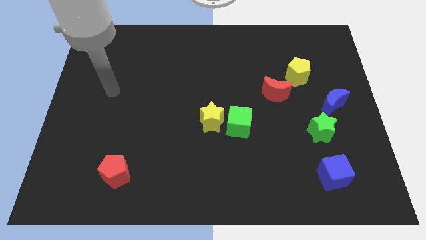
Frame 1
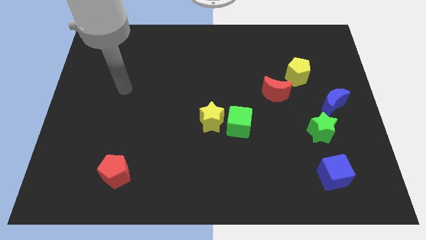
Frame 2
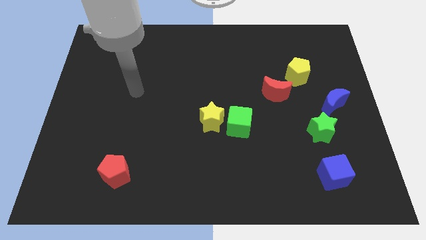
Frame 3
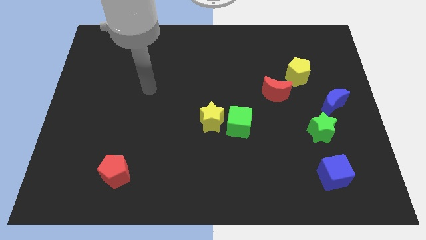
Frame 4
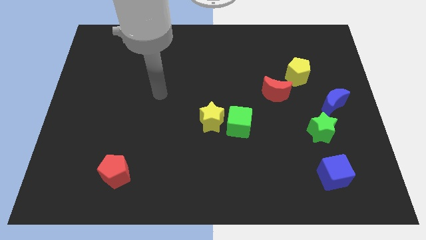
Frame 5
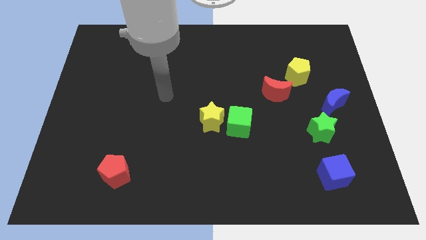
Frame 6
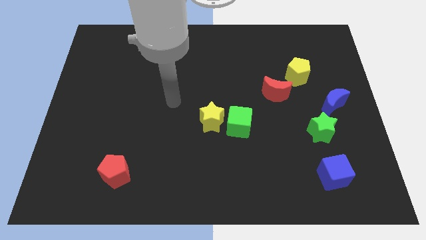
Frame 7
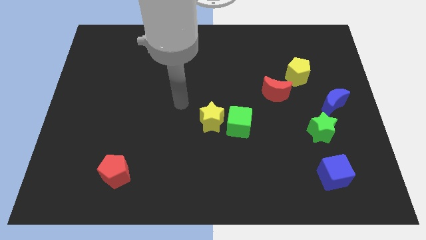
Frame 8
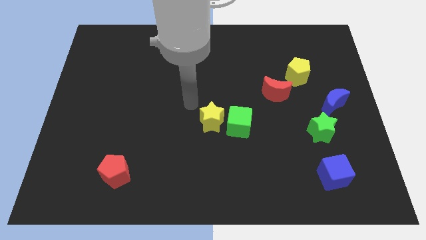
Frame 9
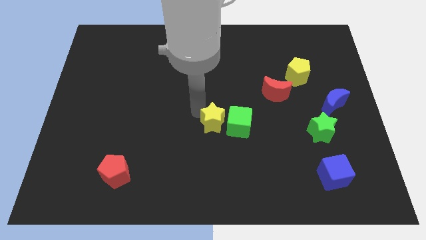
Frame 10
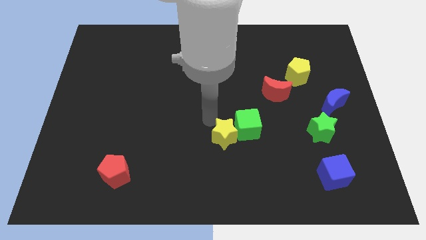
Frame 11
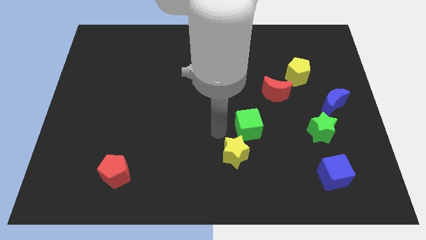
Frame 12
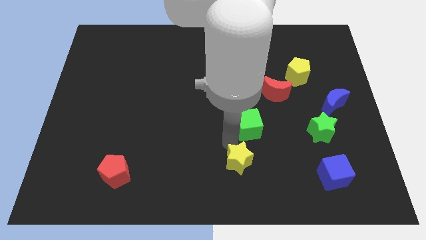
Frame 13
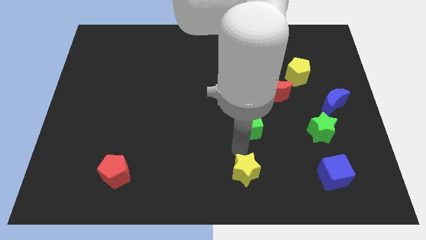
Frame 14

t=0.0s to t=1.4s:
move the green cube away from the yellow star

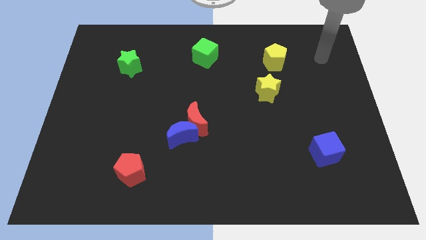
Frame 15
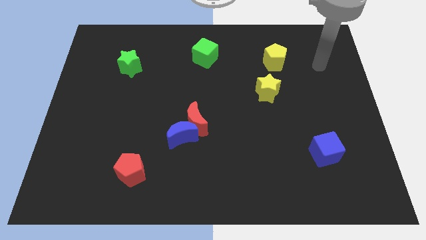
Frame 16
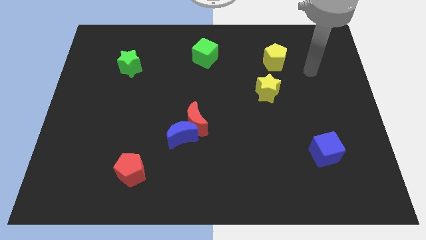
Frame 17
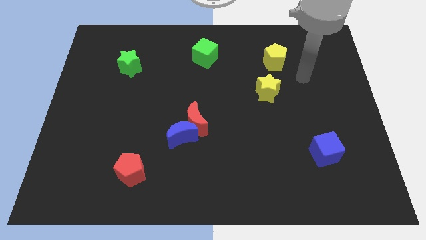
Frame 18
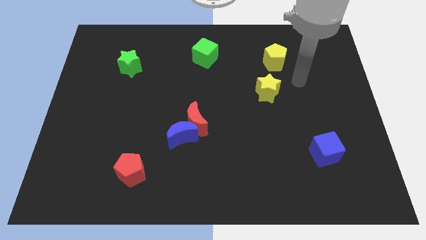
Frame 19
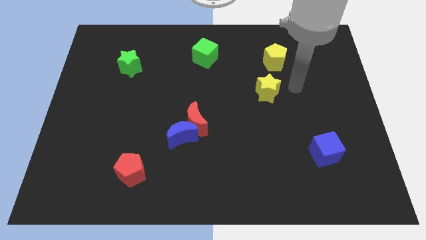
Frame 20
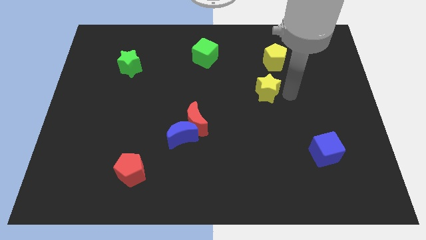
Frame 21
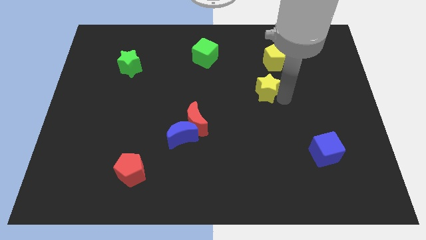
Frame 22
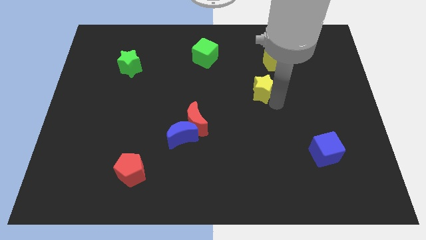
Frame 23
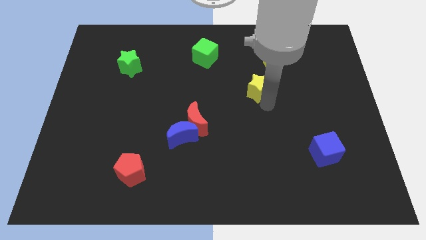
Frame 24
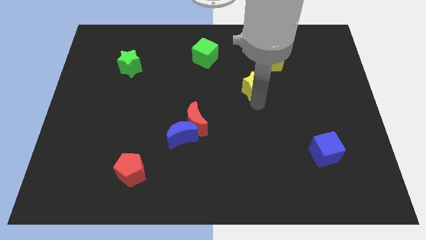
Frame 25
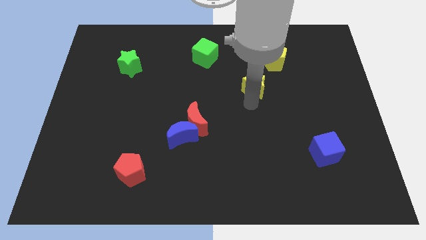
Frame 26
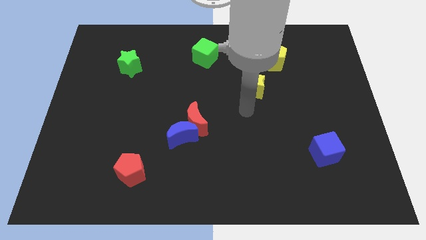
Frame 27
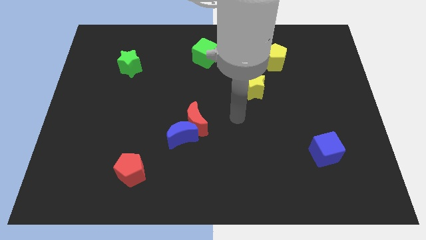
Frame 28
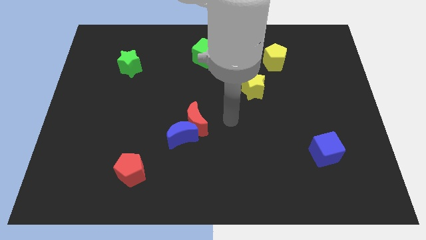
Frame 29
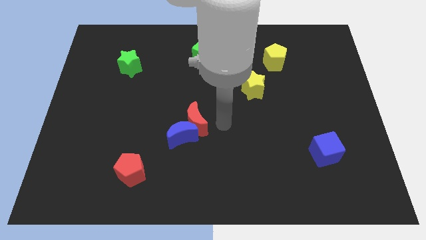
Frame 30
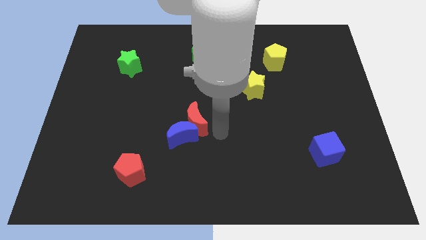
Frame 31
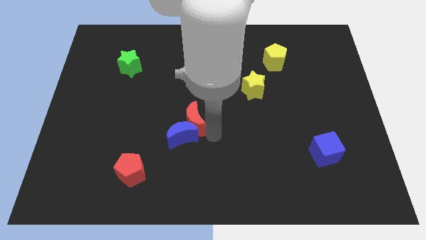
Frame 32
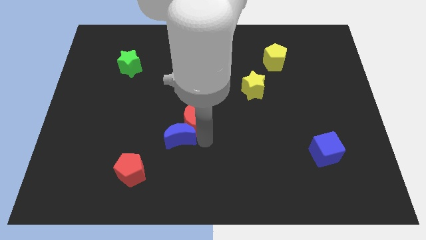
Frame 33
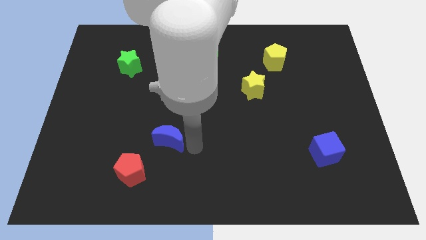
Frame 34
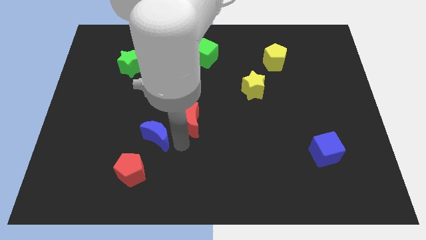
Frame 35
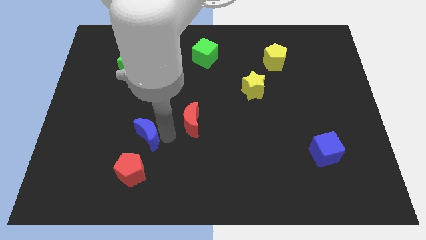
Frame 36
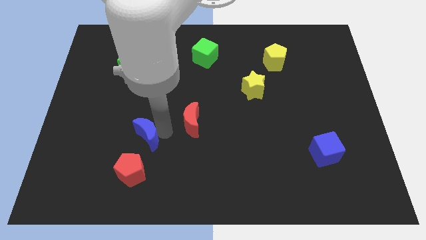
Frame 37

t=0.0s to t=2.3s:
separate the red moon from the blue moon

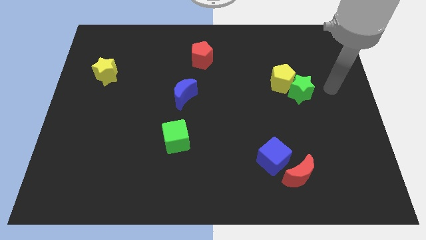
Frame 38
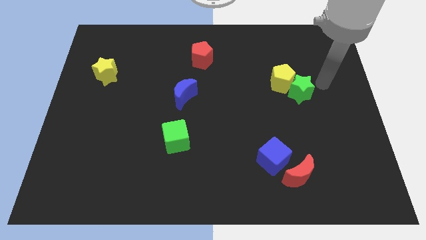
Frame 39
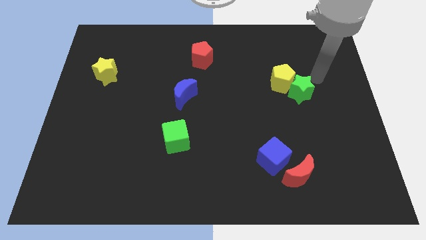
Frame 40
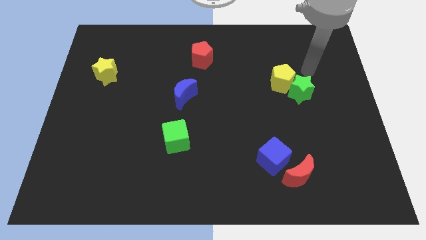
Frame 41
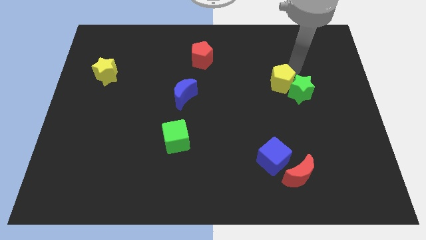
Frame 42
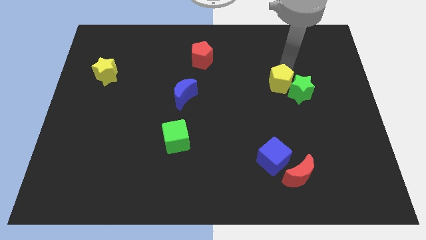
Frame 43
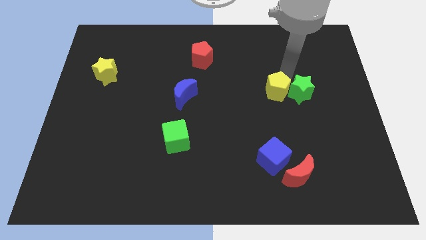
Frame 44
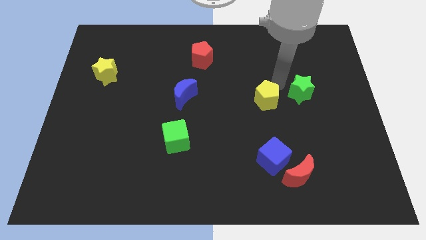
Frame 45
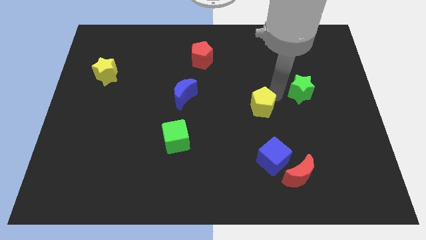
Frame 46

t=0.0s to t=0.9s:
move the green star away from the yellow pentagon

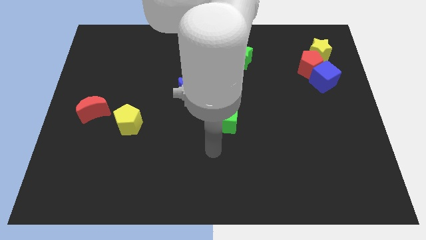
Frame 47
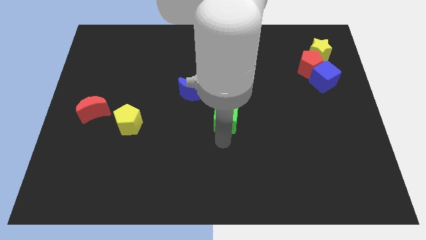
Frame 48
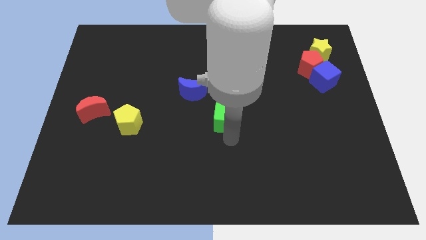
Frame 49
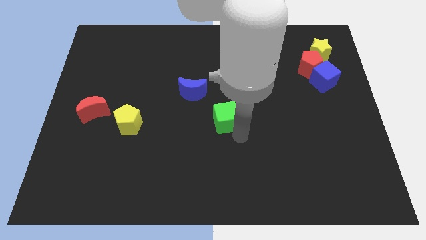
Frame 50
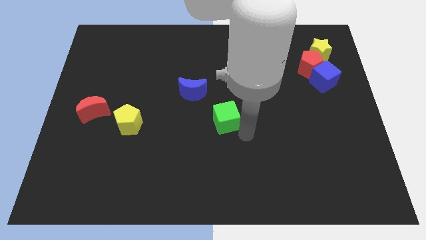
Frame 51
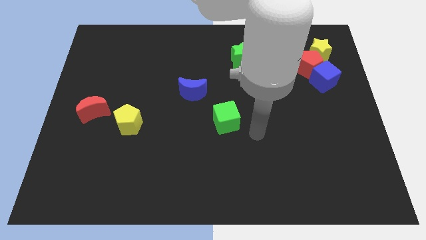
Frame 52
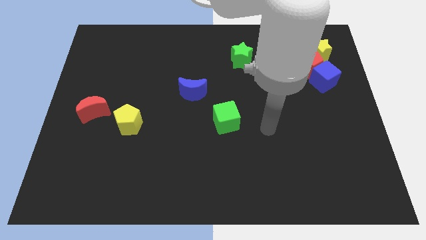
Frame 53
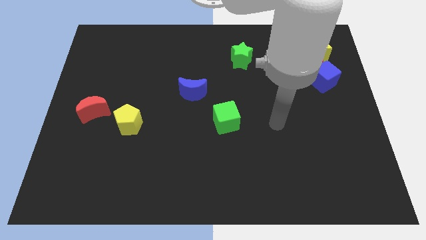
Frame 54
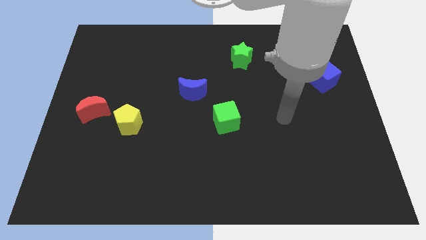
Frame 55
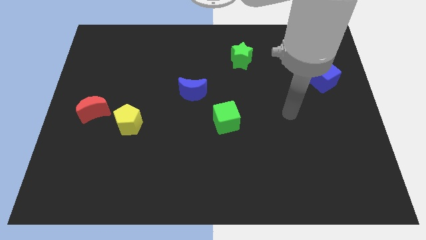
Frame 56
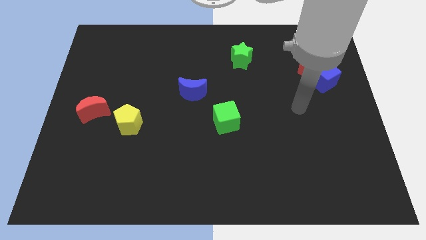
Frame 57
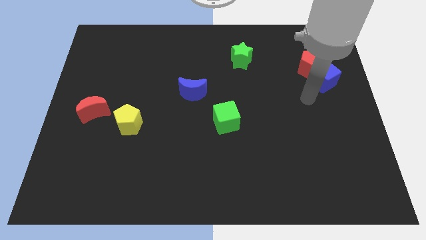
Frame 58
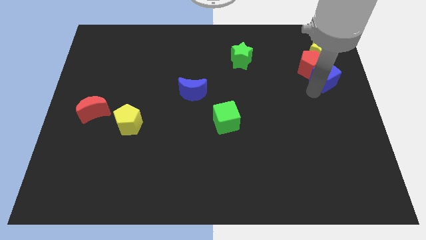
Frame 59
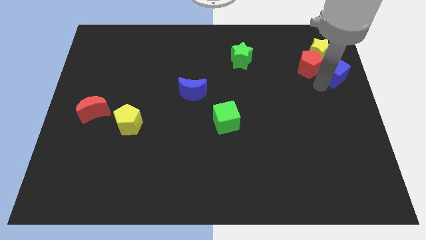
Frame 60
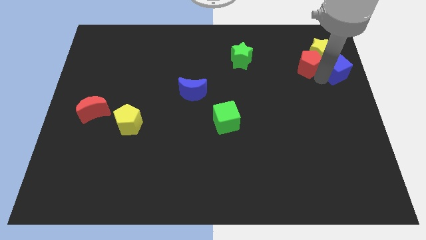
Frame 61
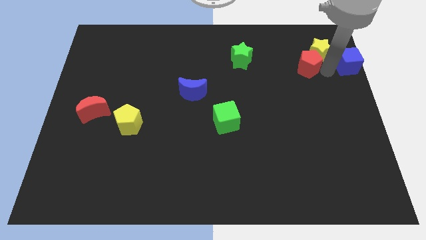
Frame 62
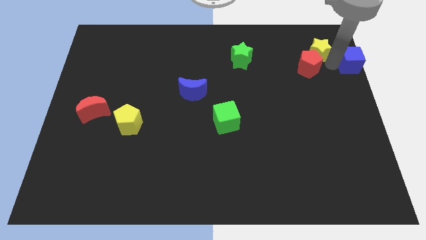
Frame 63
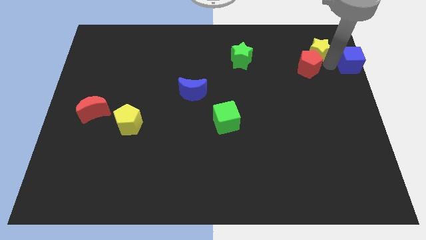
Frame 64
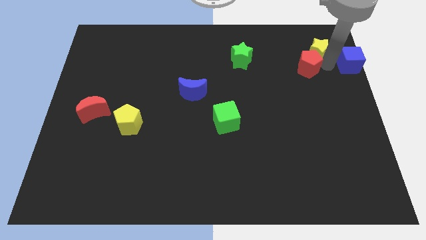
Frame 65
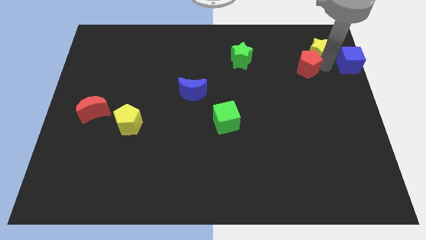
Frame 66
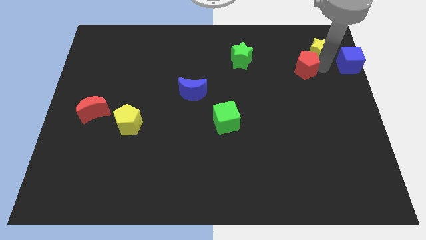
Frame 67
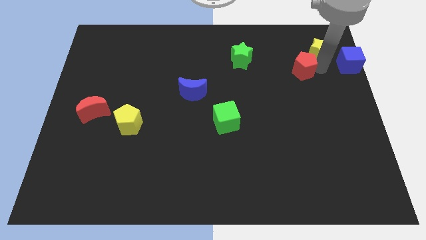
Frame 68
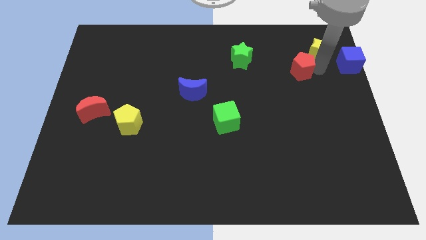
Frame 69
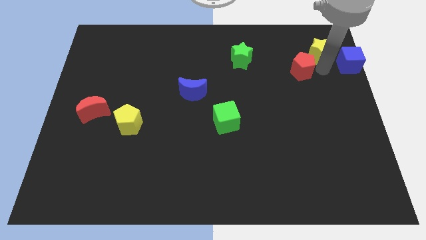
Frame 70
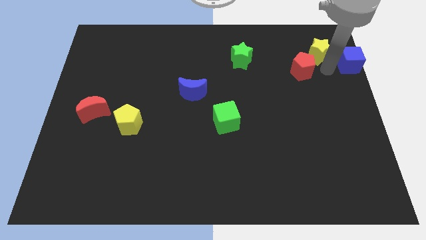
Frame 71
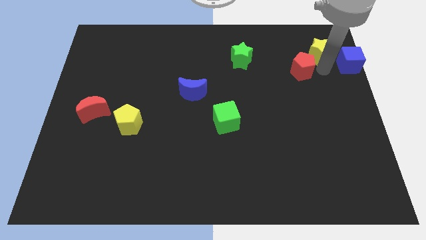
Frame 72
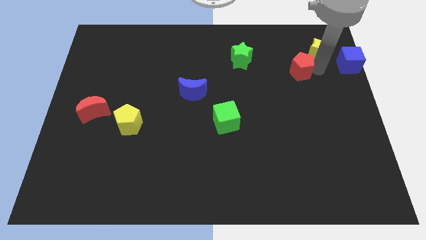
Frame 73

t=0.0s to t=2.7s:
move the red pentagon away from the blue cube and yellow star

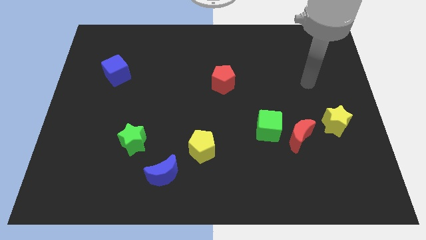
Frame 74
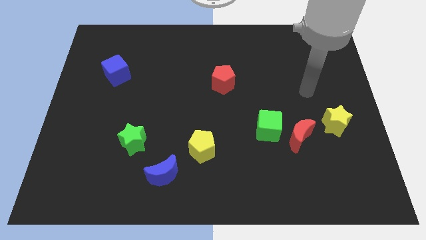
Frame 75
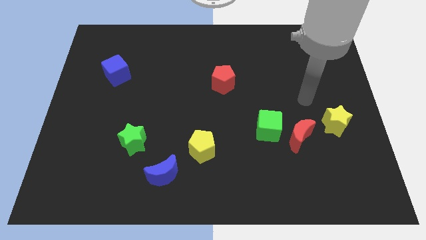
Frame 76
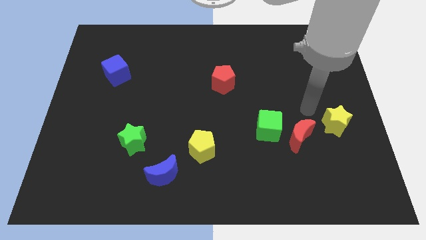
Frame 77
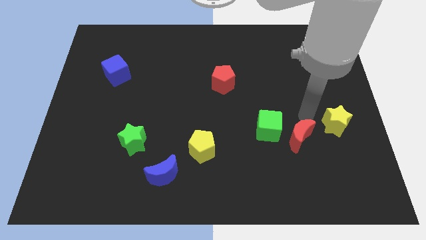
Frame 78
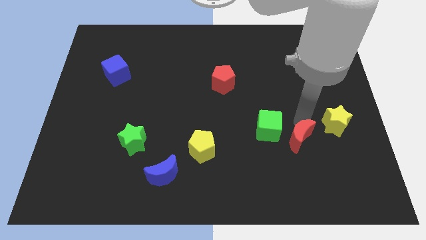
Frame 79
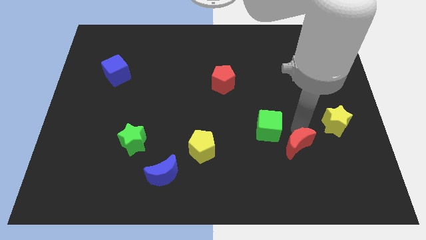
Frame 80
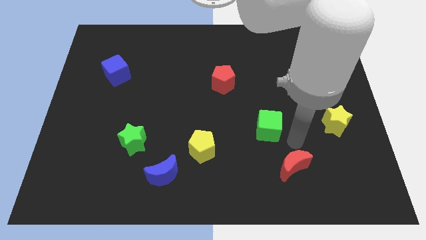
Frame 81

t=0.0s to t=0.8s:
separate the green cube from the red moon

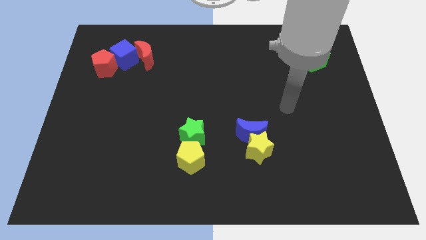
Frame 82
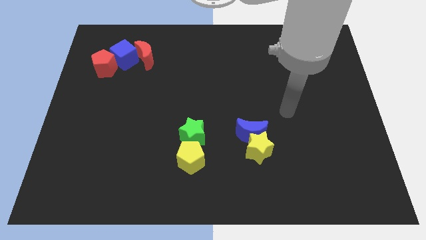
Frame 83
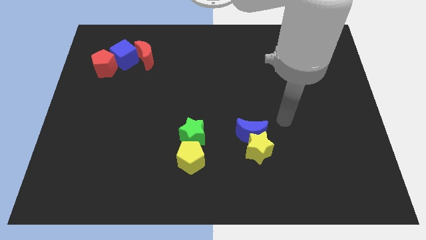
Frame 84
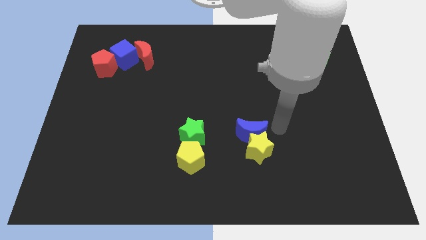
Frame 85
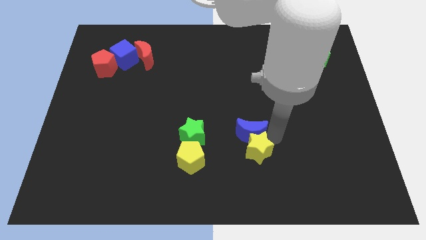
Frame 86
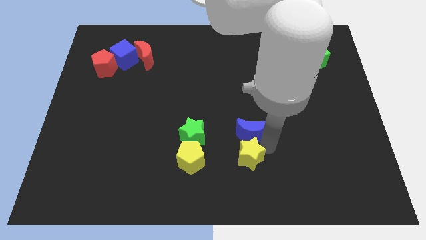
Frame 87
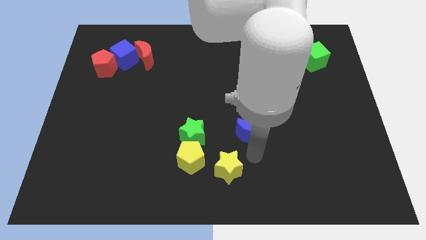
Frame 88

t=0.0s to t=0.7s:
separate the blue moon from the yellow star

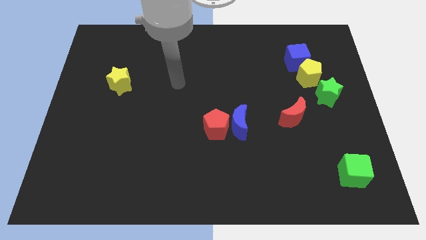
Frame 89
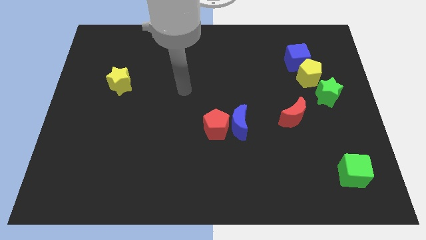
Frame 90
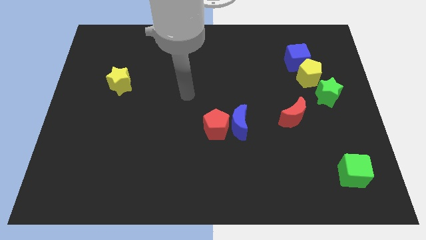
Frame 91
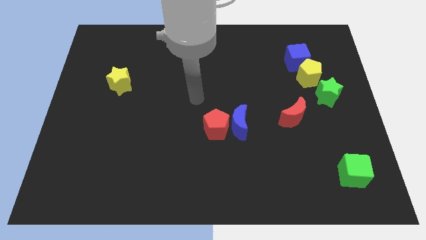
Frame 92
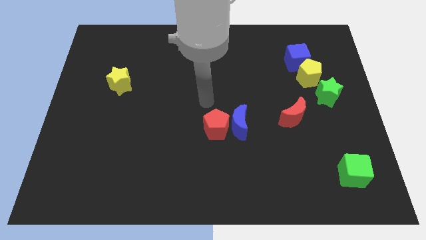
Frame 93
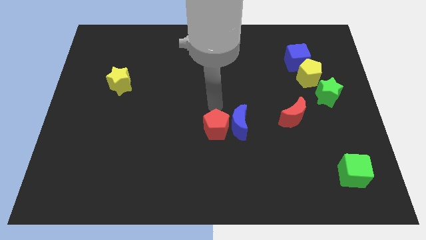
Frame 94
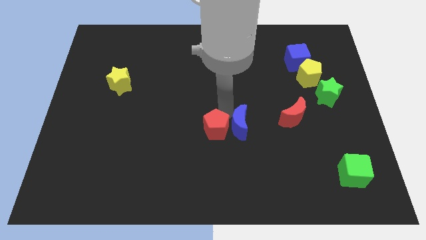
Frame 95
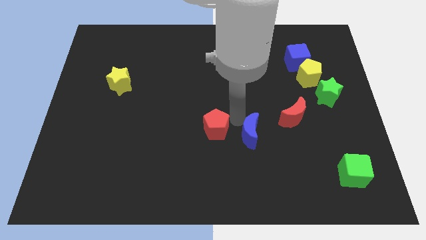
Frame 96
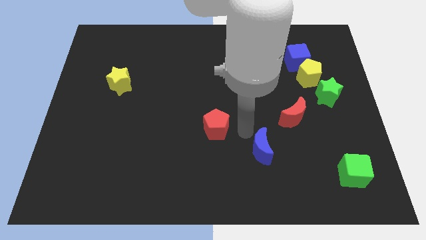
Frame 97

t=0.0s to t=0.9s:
separate the red pentagon from the blue moon
